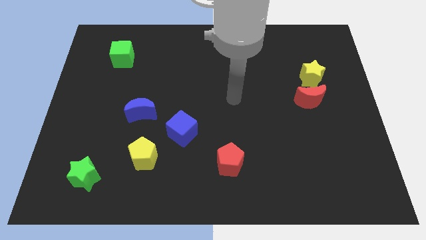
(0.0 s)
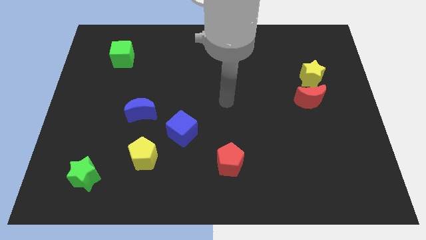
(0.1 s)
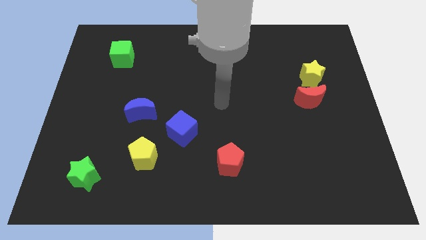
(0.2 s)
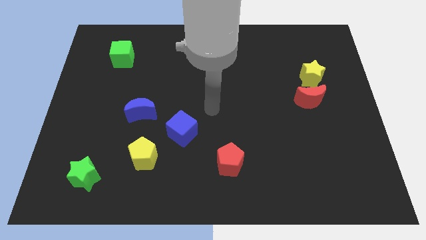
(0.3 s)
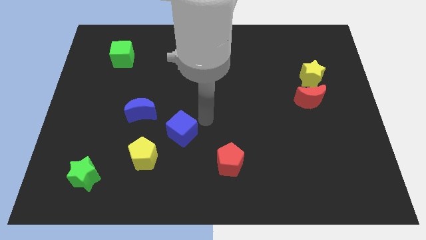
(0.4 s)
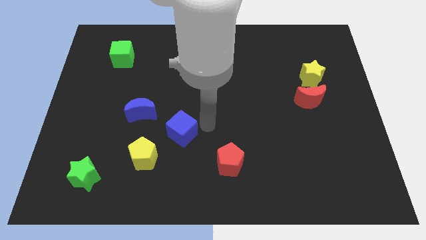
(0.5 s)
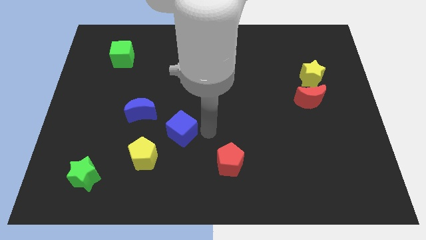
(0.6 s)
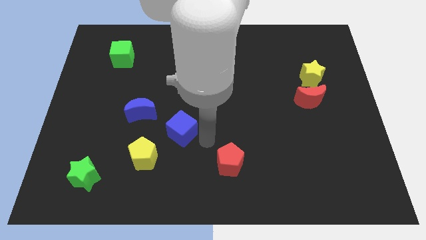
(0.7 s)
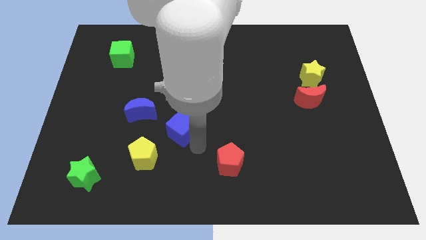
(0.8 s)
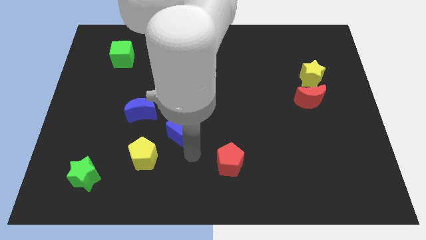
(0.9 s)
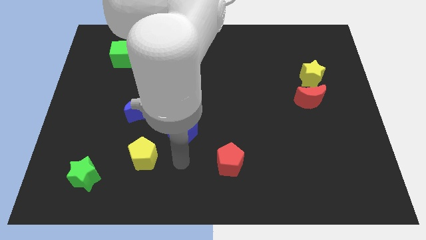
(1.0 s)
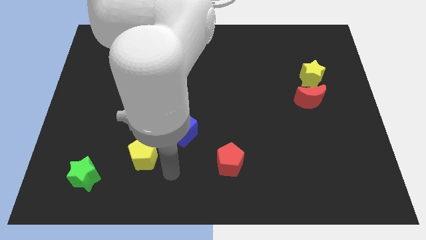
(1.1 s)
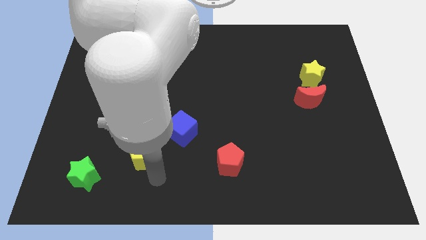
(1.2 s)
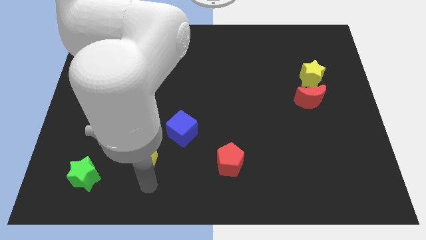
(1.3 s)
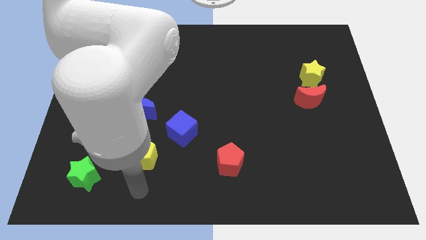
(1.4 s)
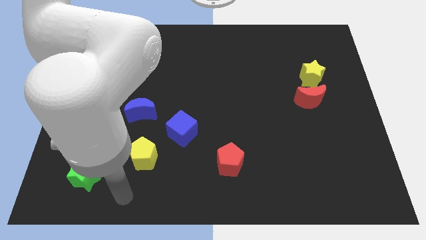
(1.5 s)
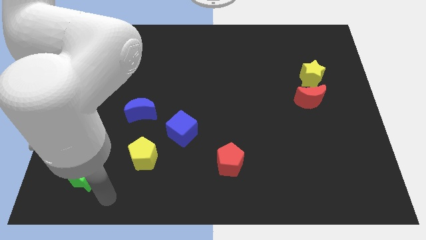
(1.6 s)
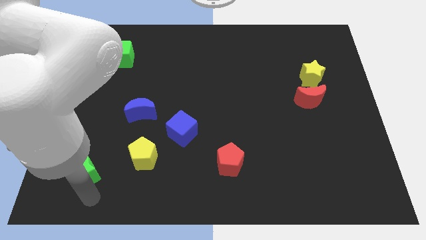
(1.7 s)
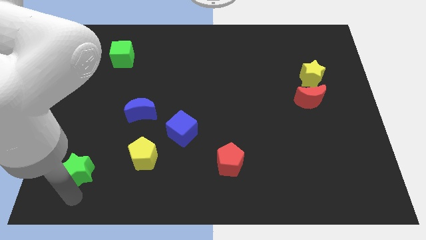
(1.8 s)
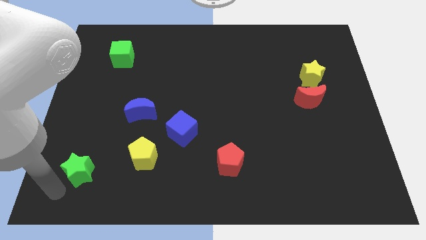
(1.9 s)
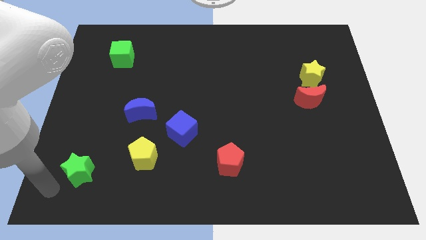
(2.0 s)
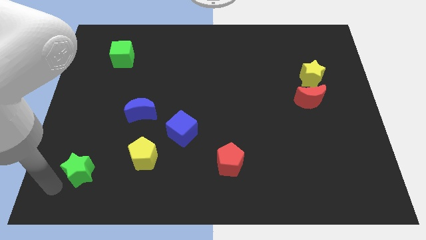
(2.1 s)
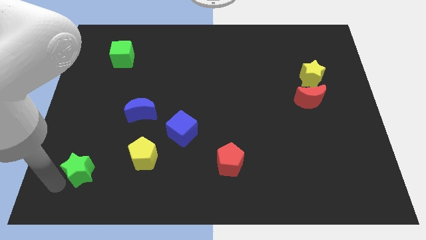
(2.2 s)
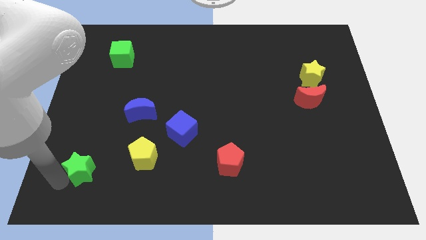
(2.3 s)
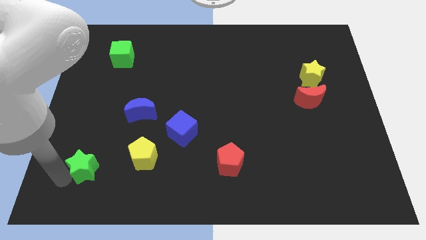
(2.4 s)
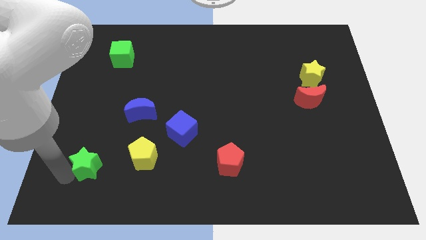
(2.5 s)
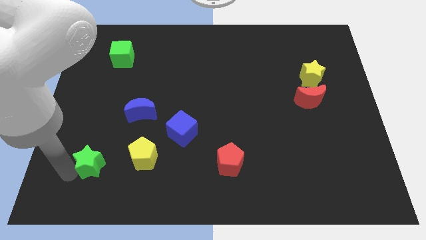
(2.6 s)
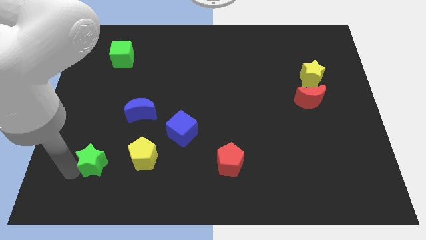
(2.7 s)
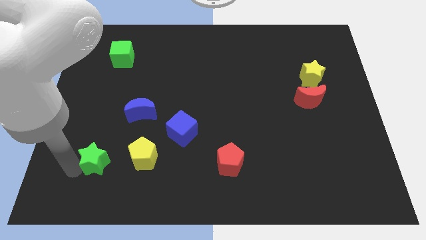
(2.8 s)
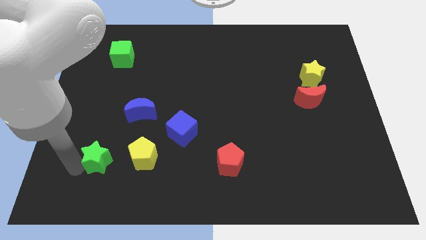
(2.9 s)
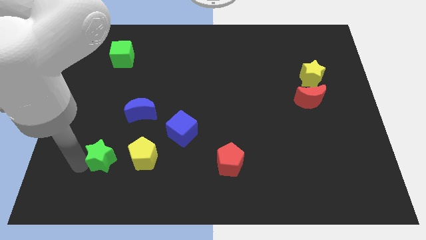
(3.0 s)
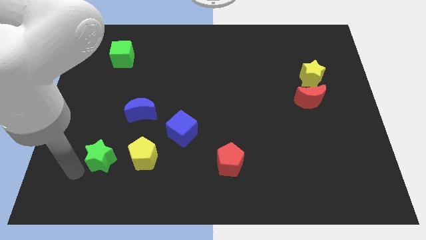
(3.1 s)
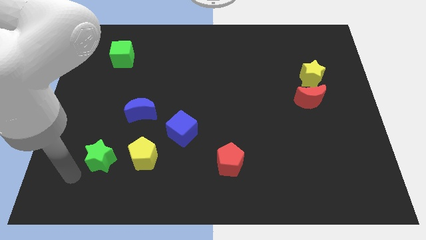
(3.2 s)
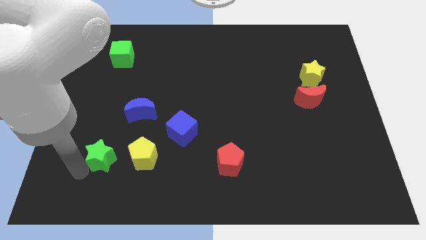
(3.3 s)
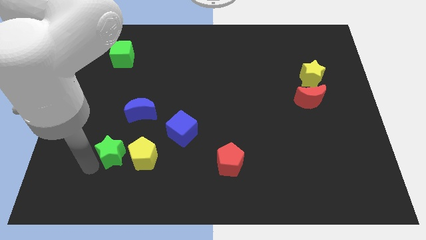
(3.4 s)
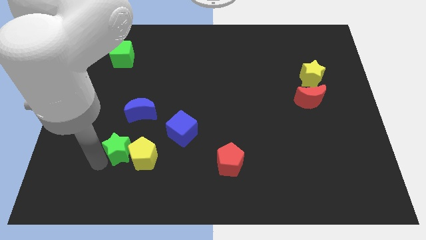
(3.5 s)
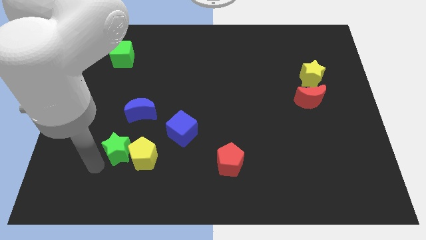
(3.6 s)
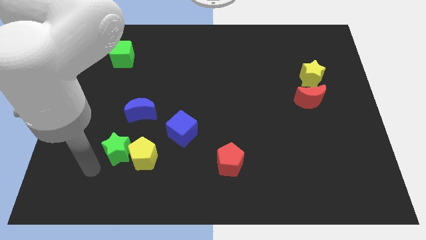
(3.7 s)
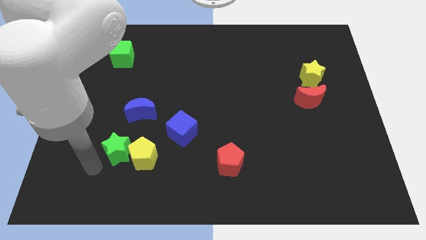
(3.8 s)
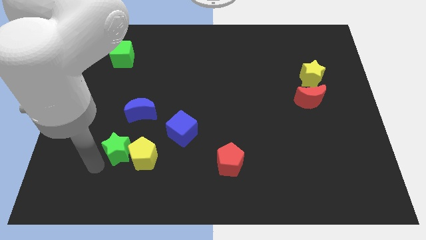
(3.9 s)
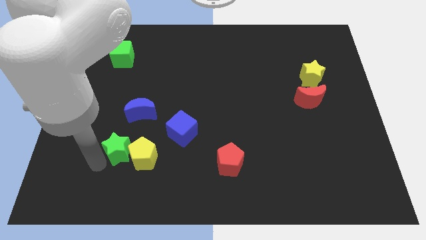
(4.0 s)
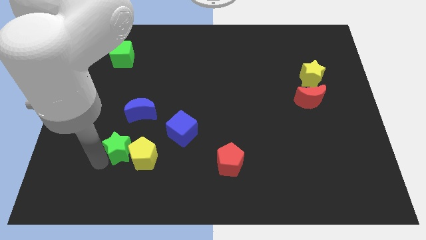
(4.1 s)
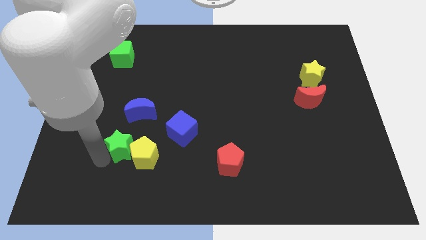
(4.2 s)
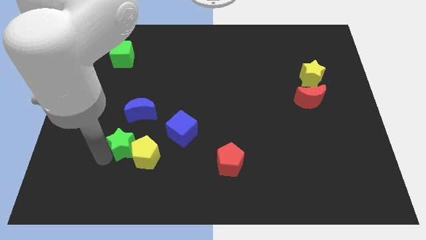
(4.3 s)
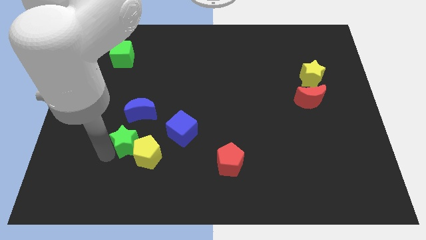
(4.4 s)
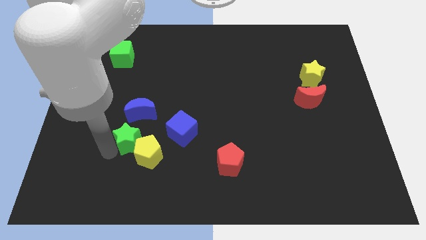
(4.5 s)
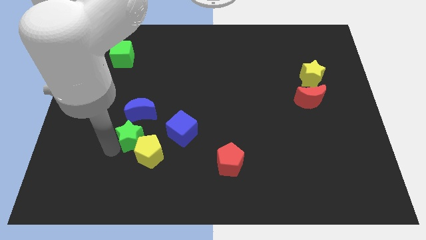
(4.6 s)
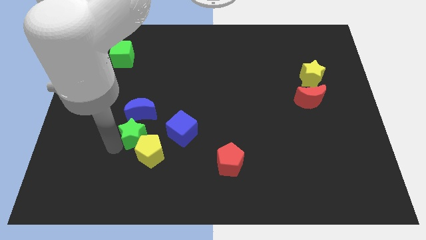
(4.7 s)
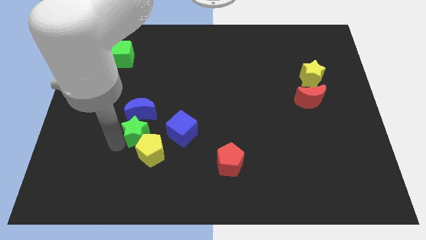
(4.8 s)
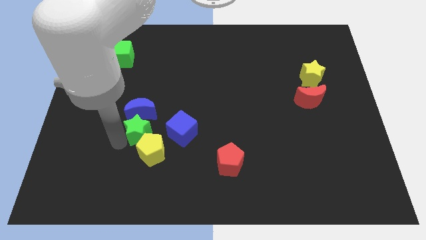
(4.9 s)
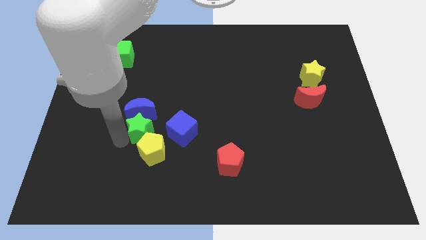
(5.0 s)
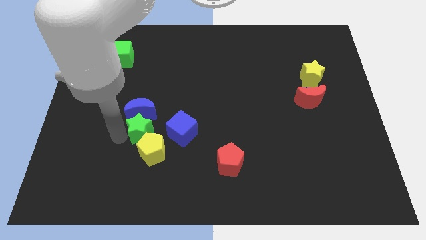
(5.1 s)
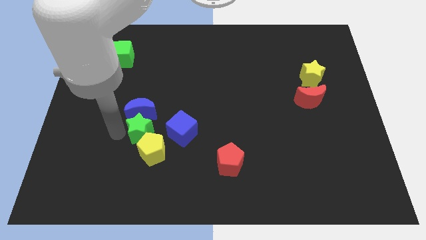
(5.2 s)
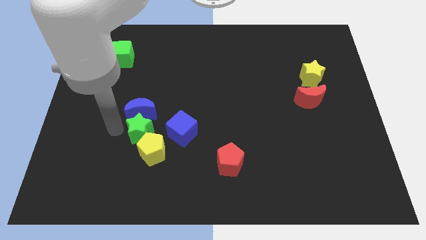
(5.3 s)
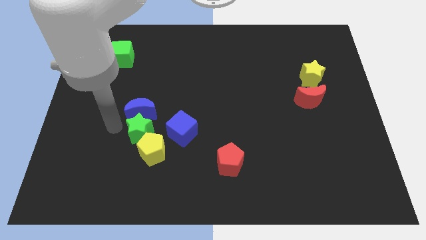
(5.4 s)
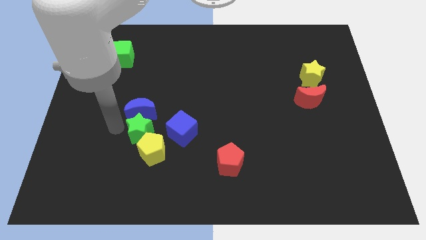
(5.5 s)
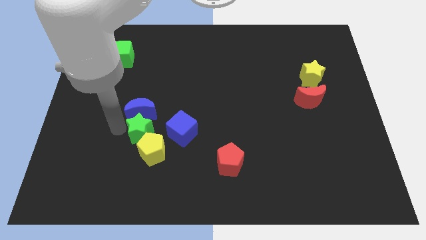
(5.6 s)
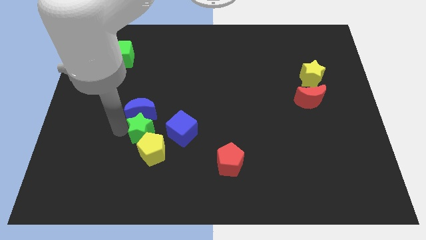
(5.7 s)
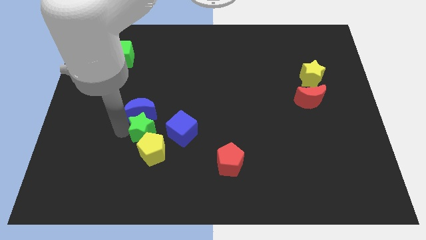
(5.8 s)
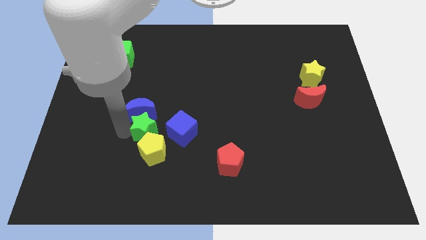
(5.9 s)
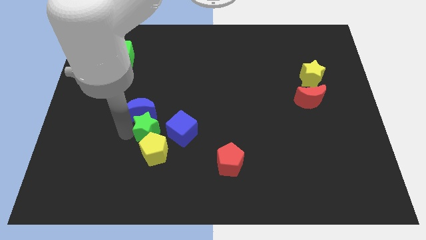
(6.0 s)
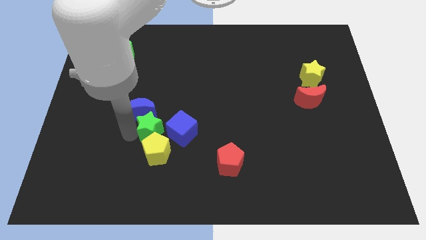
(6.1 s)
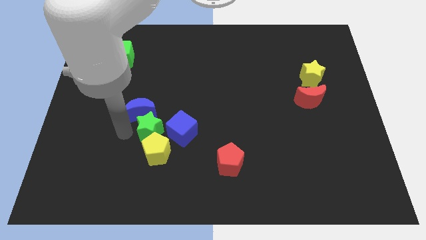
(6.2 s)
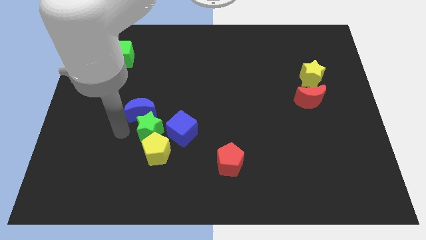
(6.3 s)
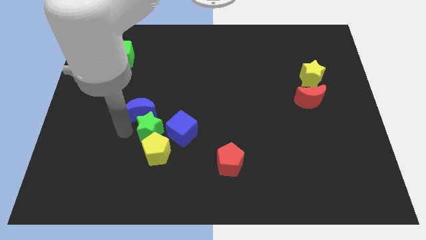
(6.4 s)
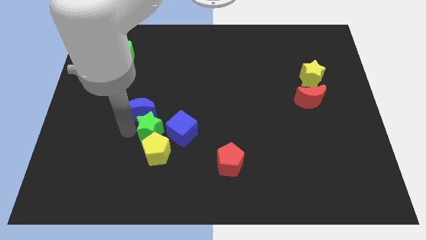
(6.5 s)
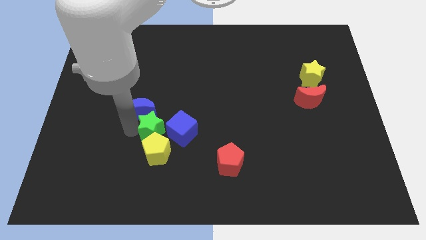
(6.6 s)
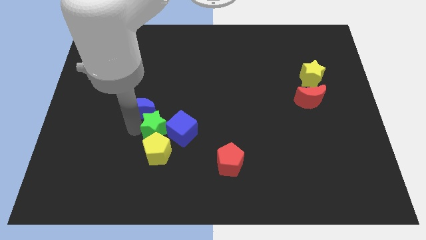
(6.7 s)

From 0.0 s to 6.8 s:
put the green star towards the blue cube

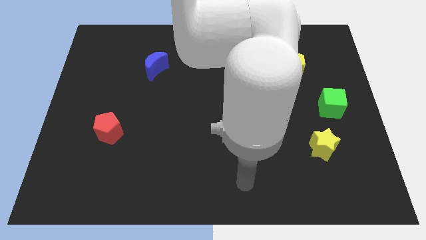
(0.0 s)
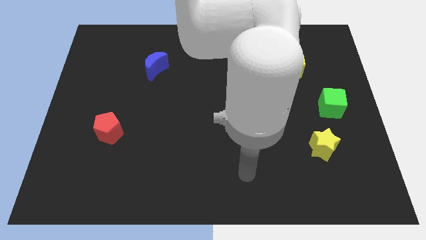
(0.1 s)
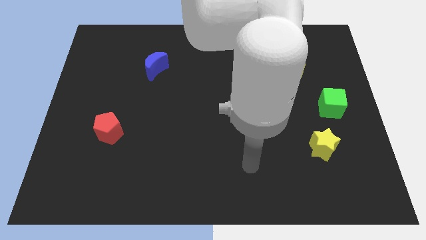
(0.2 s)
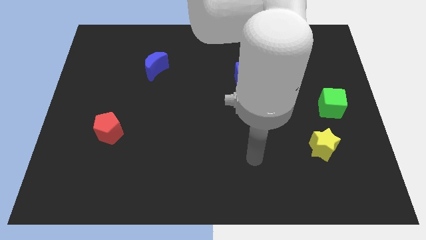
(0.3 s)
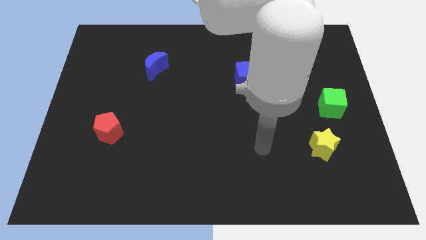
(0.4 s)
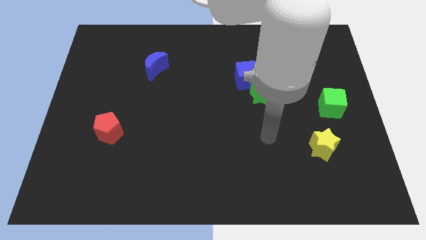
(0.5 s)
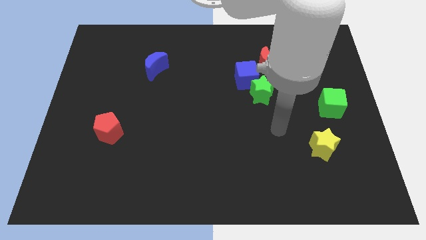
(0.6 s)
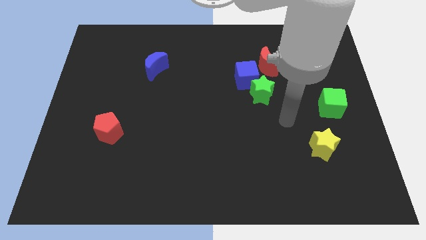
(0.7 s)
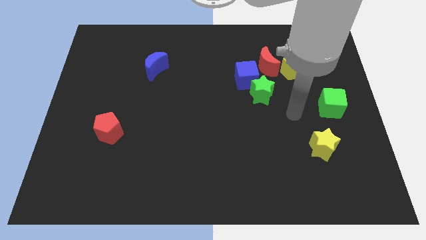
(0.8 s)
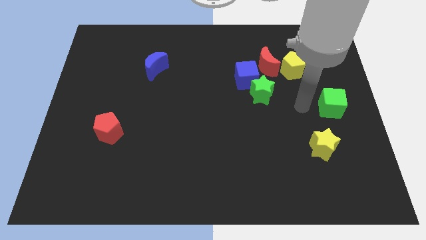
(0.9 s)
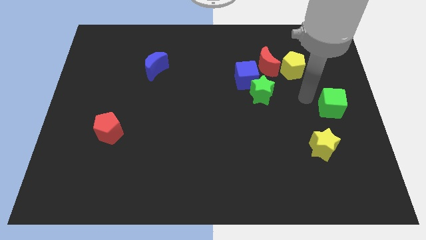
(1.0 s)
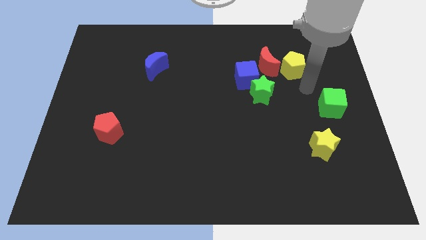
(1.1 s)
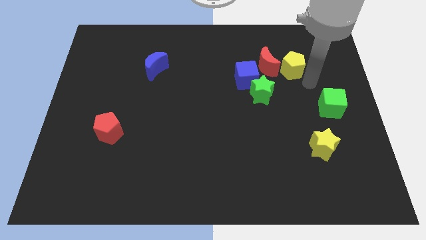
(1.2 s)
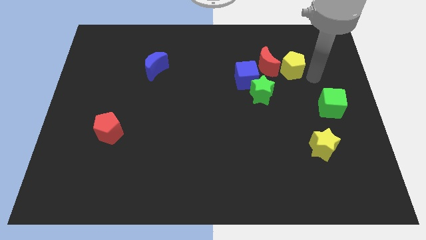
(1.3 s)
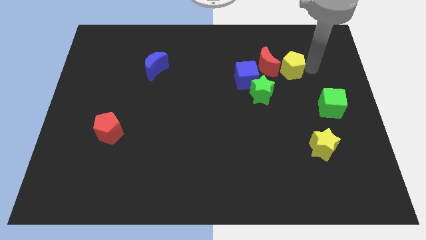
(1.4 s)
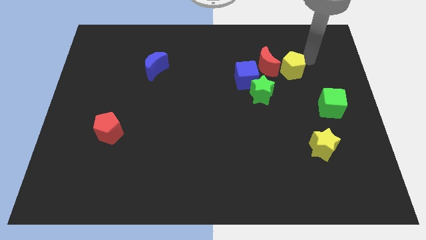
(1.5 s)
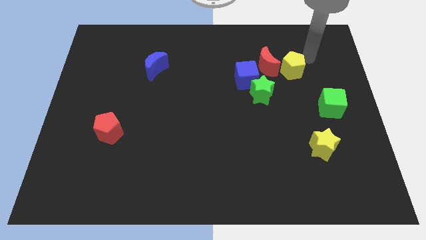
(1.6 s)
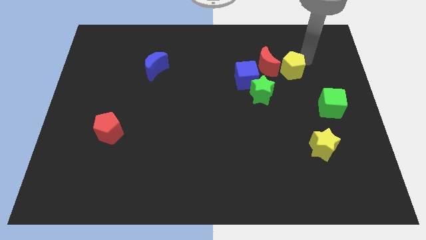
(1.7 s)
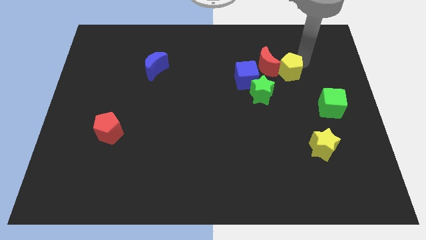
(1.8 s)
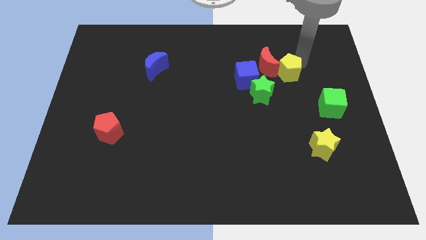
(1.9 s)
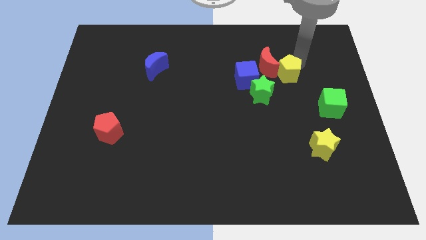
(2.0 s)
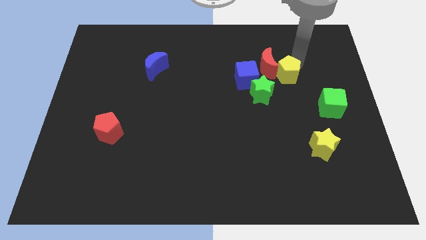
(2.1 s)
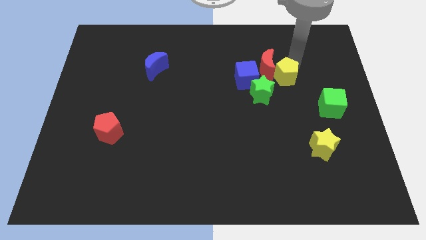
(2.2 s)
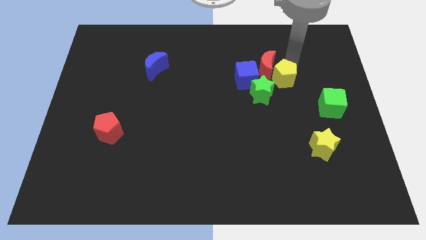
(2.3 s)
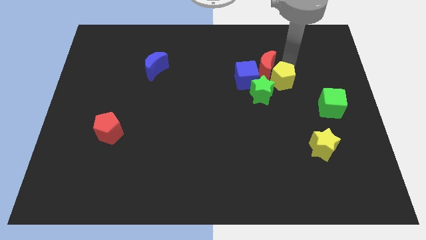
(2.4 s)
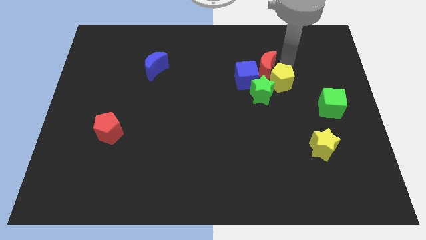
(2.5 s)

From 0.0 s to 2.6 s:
put the yellow pentagon close to the green star
